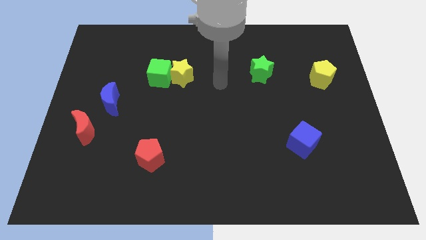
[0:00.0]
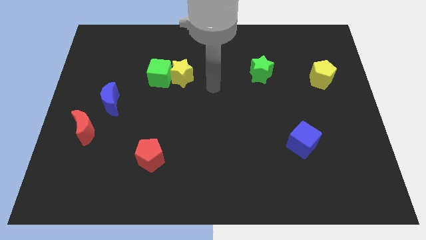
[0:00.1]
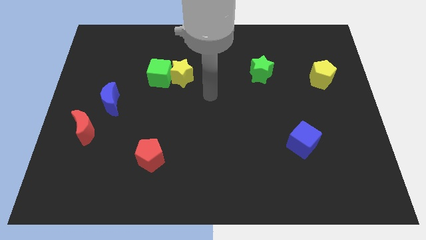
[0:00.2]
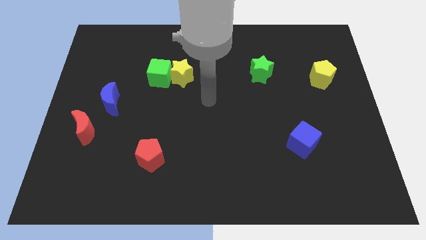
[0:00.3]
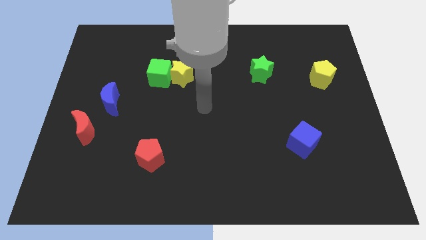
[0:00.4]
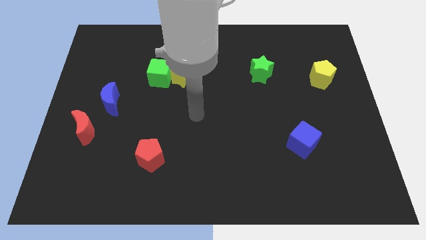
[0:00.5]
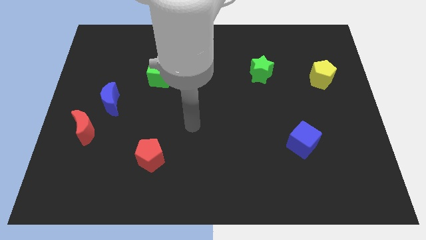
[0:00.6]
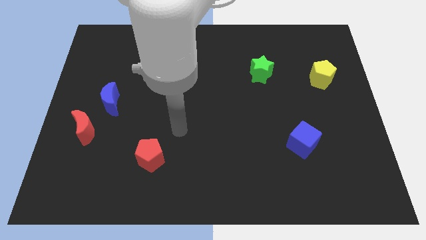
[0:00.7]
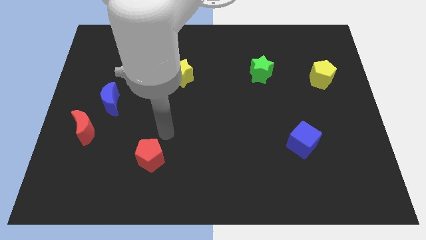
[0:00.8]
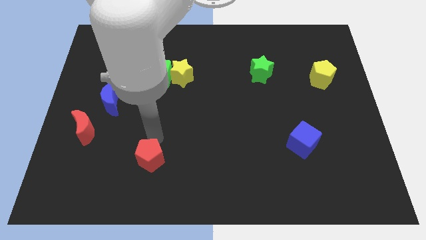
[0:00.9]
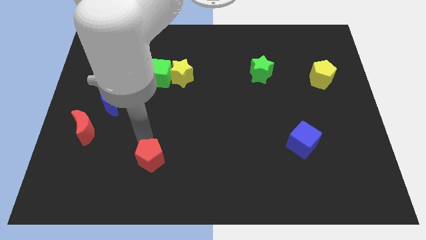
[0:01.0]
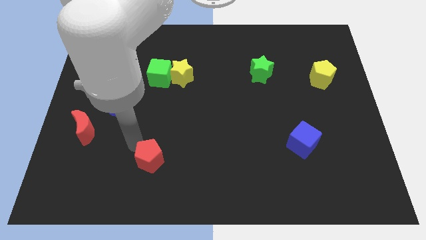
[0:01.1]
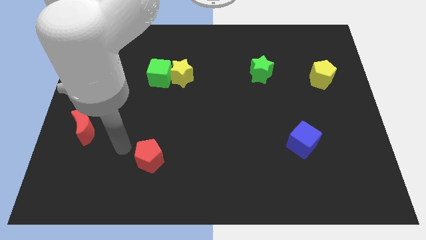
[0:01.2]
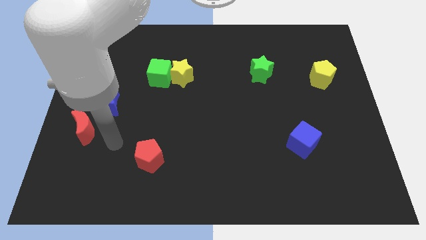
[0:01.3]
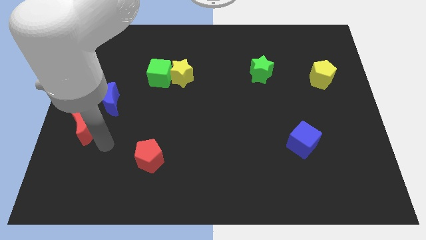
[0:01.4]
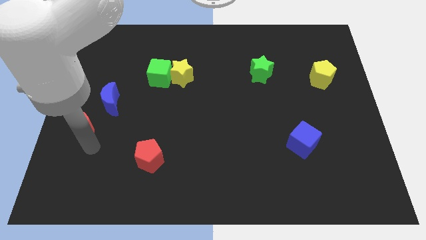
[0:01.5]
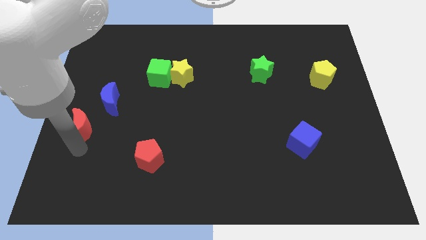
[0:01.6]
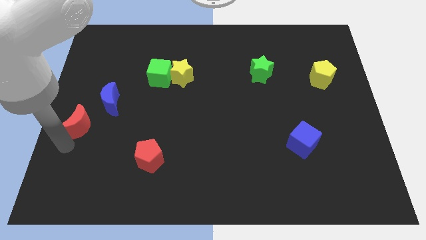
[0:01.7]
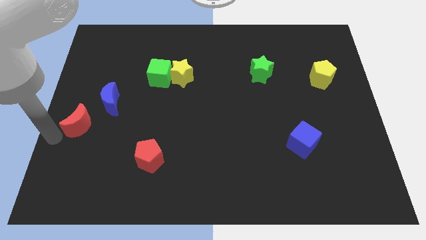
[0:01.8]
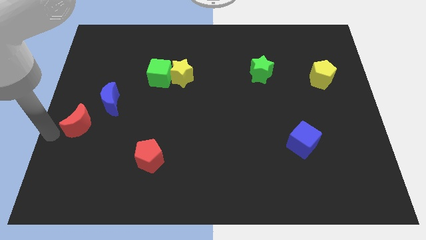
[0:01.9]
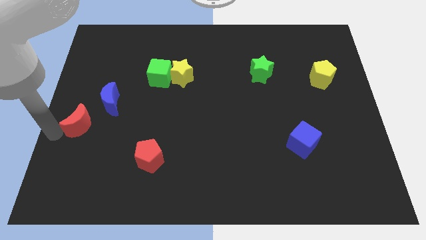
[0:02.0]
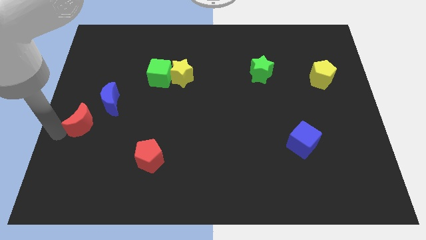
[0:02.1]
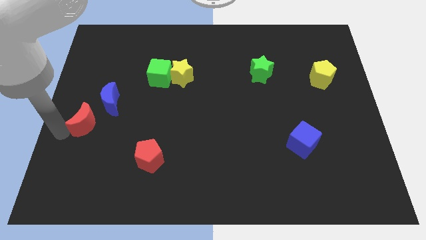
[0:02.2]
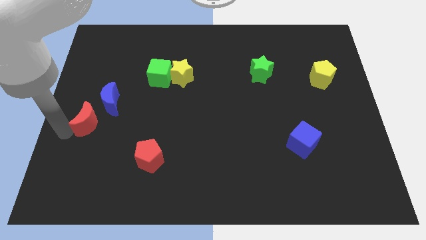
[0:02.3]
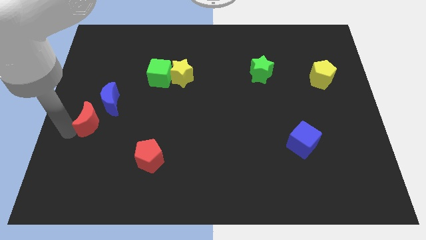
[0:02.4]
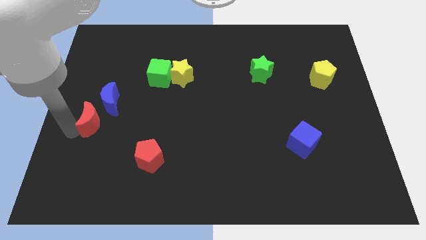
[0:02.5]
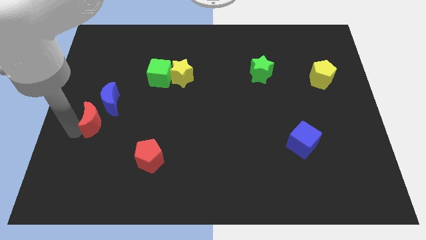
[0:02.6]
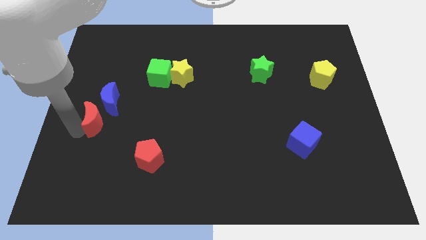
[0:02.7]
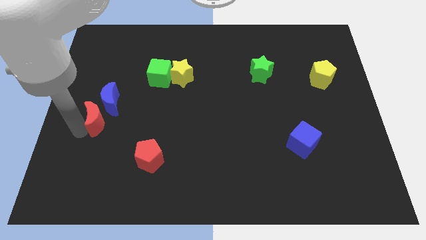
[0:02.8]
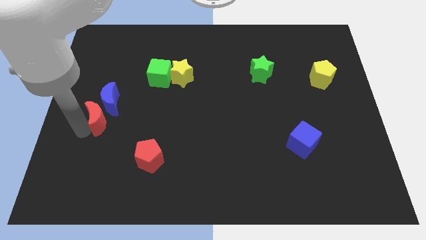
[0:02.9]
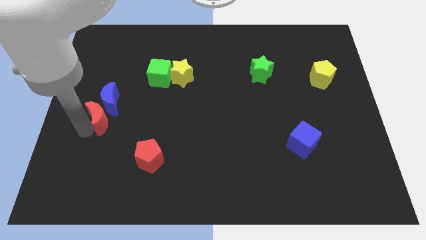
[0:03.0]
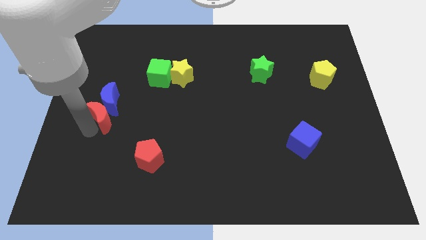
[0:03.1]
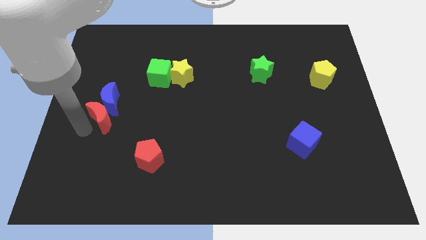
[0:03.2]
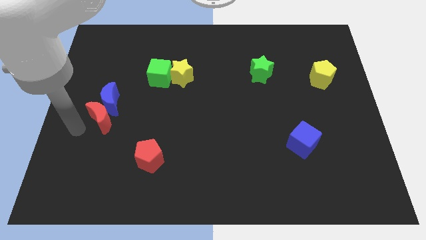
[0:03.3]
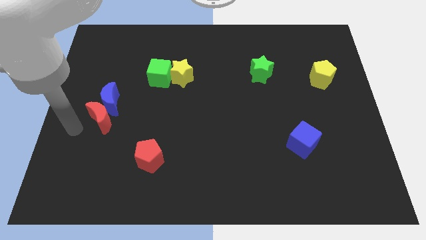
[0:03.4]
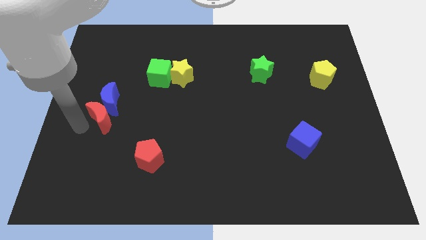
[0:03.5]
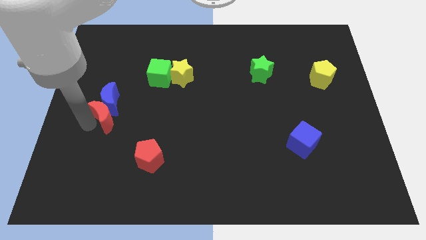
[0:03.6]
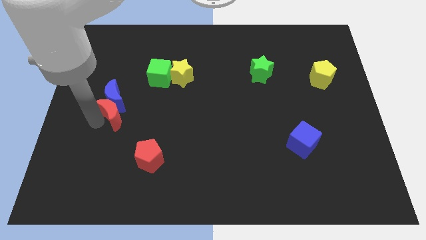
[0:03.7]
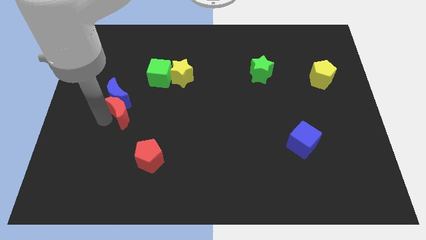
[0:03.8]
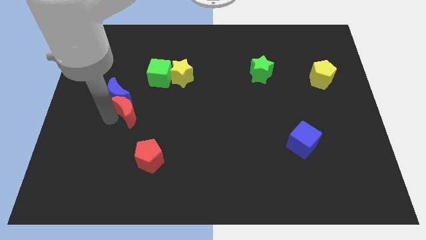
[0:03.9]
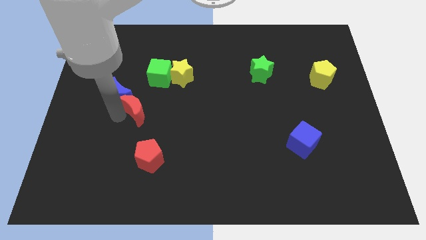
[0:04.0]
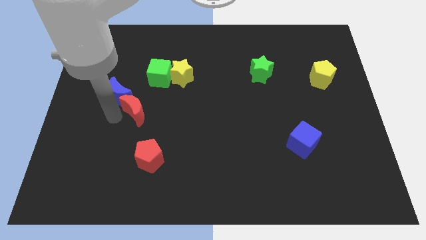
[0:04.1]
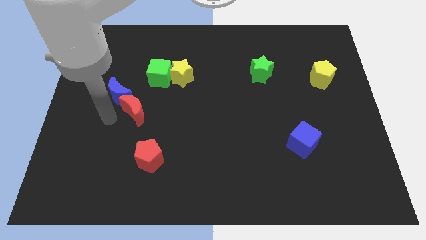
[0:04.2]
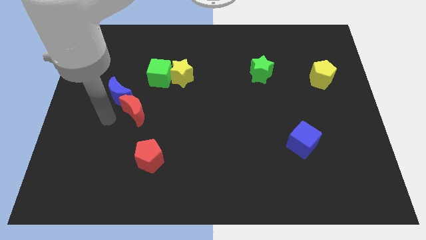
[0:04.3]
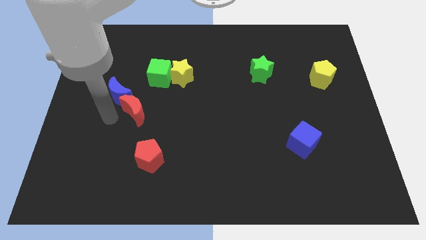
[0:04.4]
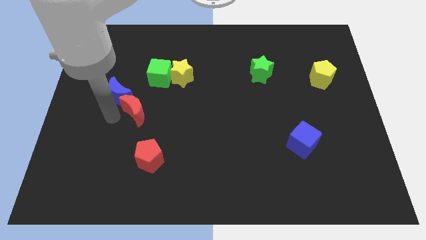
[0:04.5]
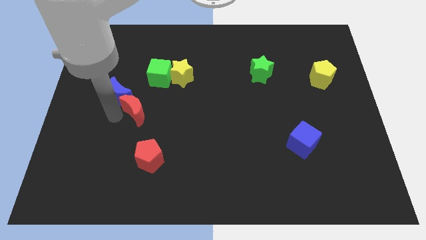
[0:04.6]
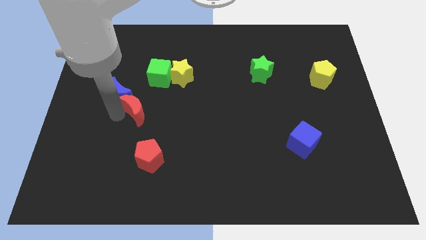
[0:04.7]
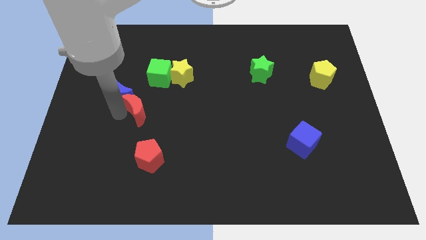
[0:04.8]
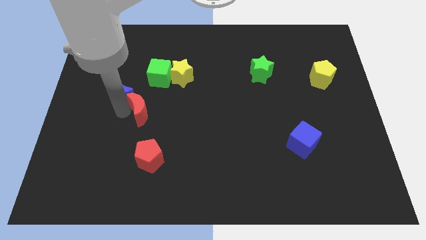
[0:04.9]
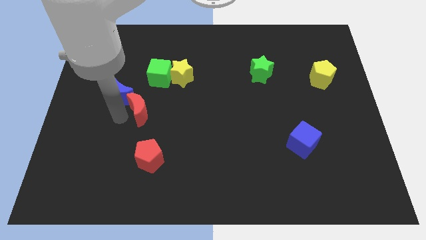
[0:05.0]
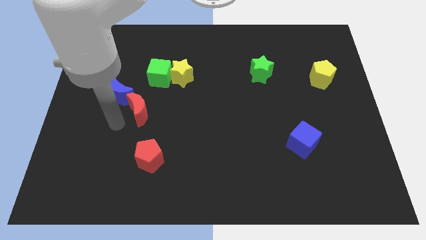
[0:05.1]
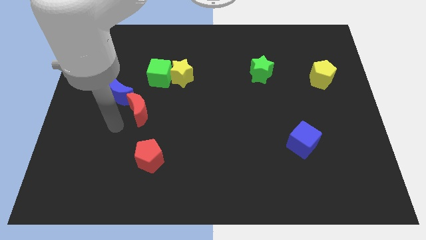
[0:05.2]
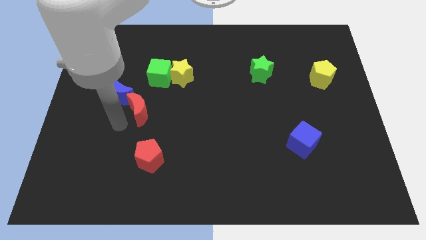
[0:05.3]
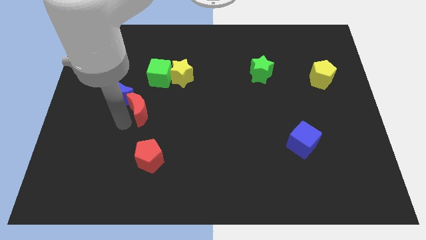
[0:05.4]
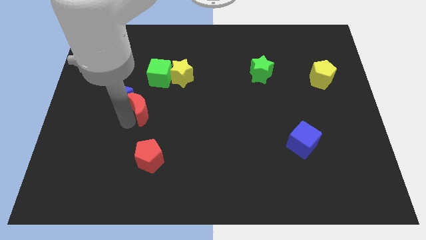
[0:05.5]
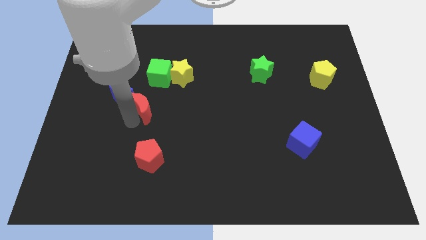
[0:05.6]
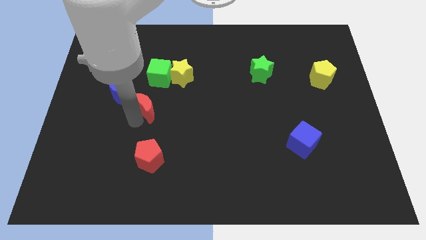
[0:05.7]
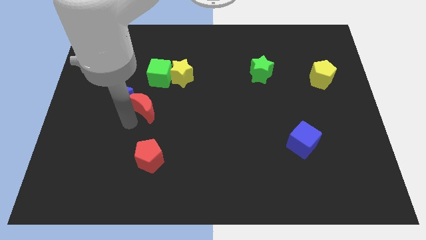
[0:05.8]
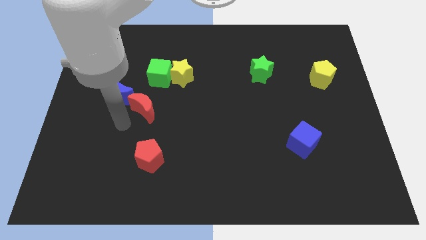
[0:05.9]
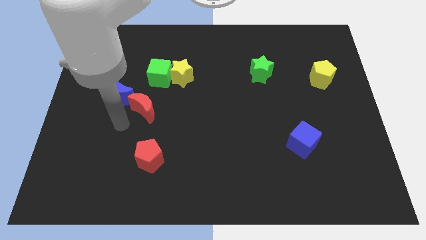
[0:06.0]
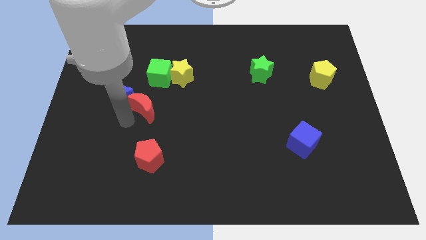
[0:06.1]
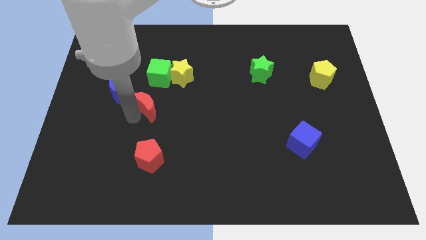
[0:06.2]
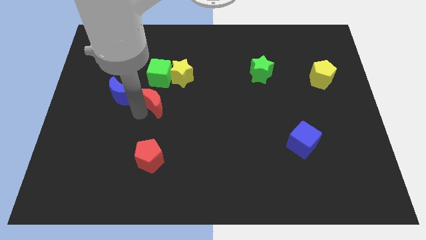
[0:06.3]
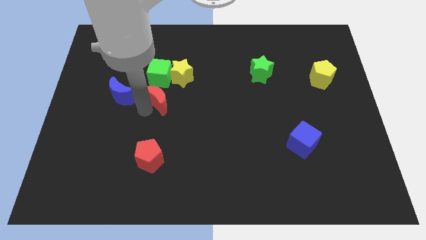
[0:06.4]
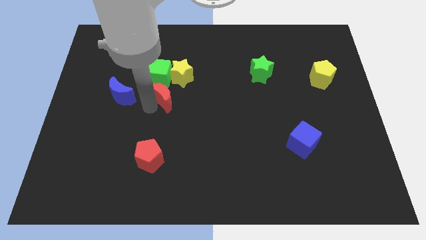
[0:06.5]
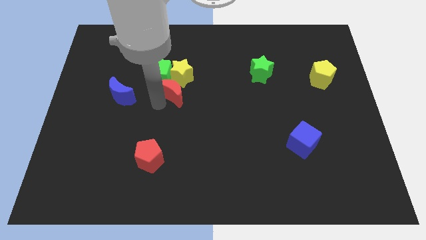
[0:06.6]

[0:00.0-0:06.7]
push the red moon next to the yellow star

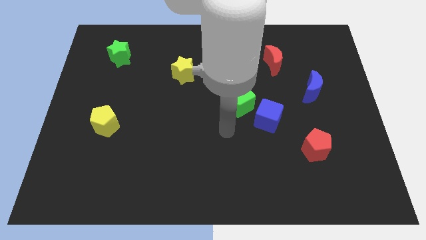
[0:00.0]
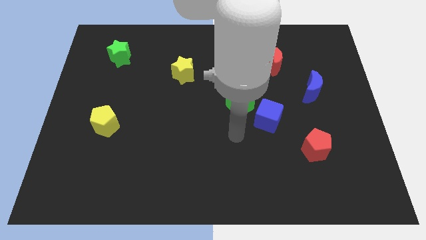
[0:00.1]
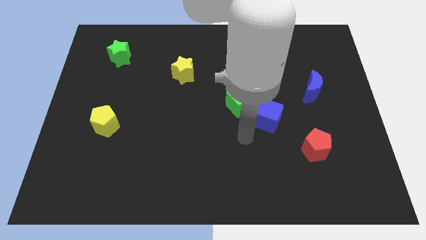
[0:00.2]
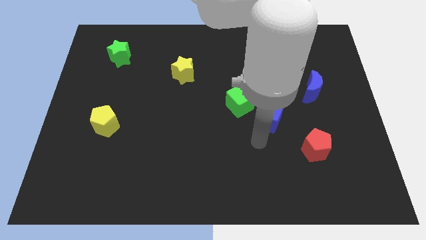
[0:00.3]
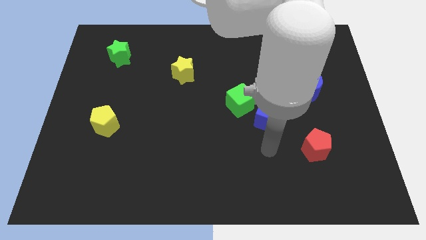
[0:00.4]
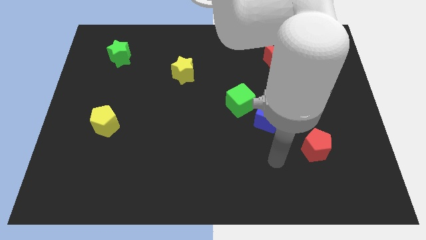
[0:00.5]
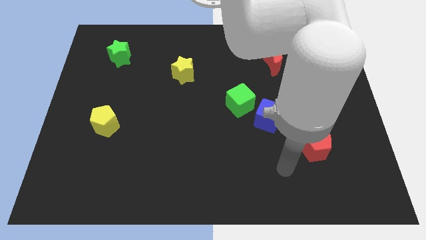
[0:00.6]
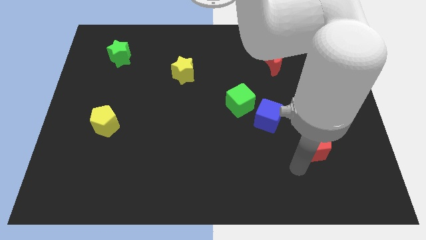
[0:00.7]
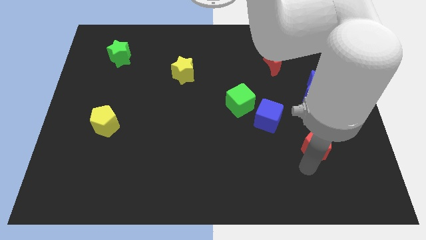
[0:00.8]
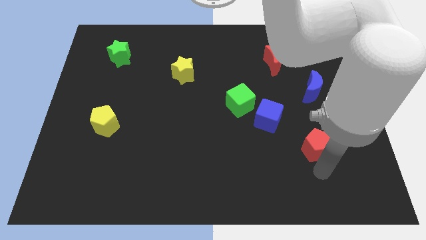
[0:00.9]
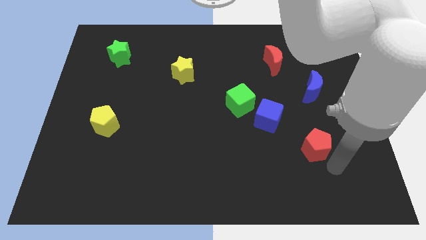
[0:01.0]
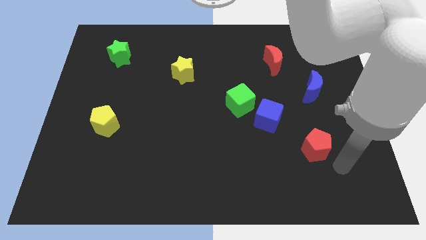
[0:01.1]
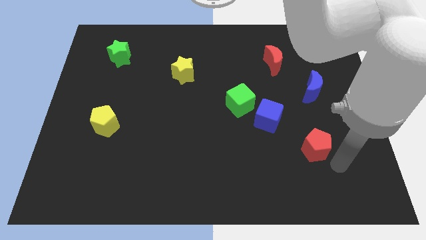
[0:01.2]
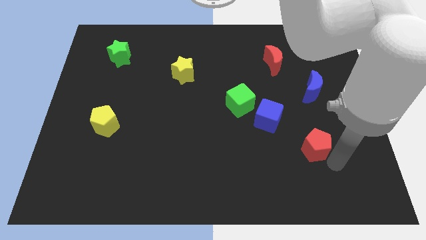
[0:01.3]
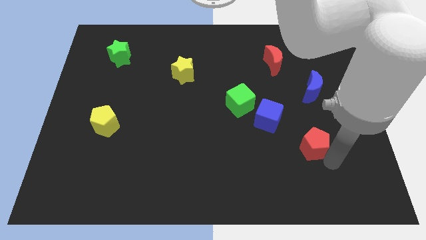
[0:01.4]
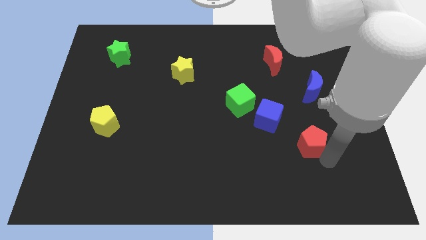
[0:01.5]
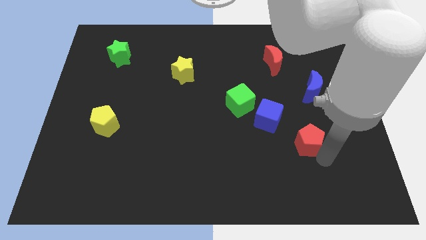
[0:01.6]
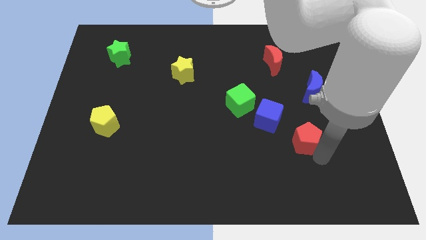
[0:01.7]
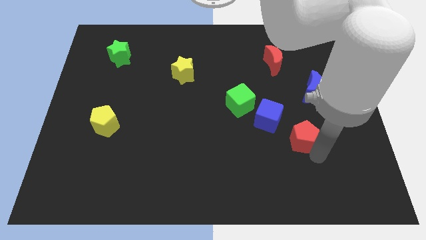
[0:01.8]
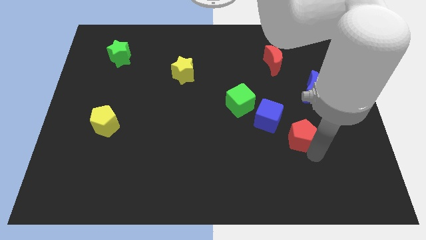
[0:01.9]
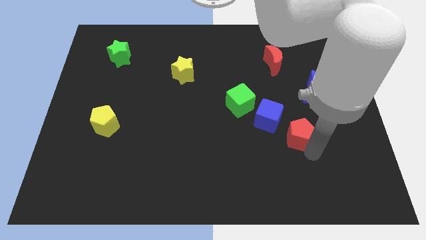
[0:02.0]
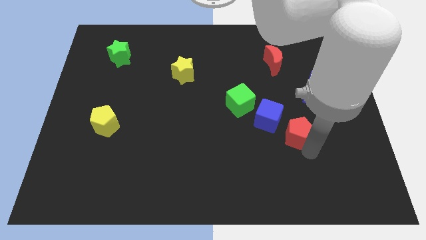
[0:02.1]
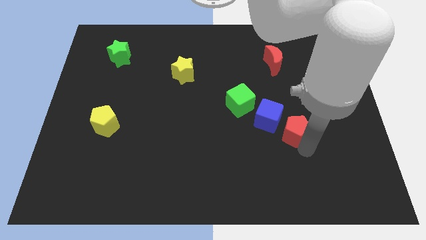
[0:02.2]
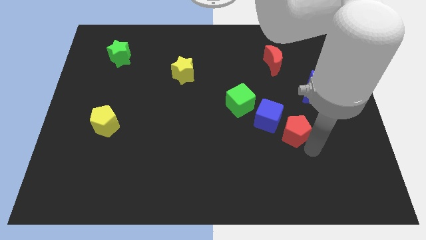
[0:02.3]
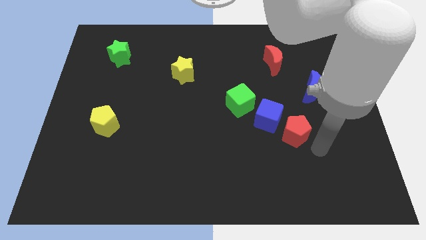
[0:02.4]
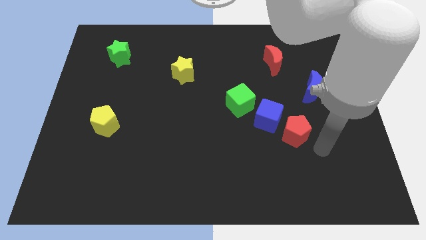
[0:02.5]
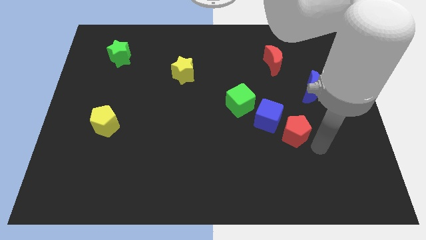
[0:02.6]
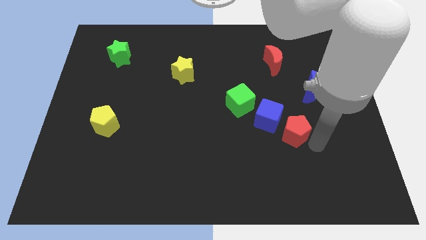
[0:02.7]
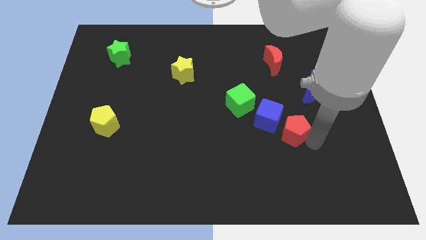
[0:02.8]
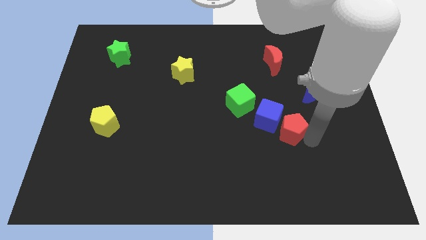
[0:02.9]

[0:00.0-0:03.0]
push the red pentagon towards the blue cube
